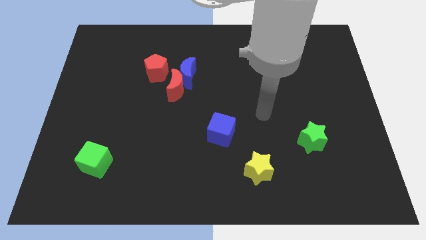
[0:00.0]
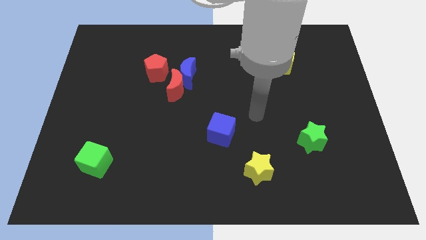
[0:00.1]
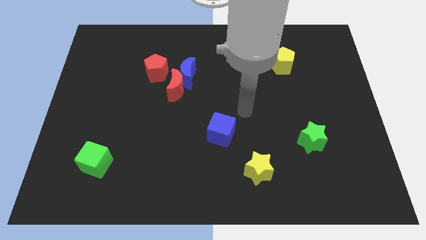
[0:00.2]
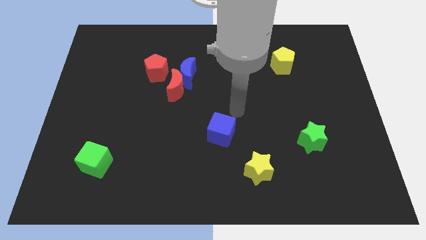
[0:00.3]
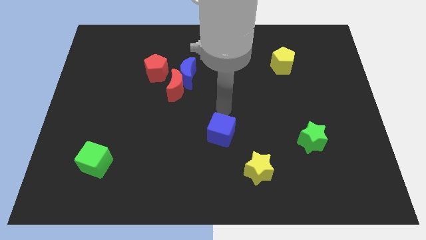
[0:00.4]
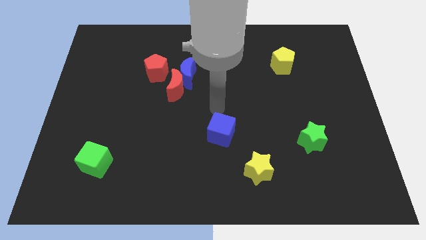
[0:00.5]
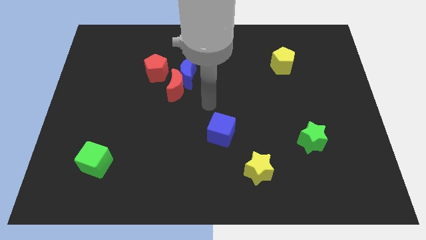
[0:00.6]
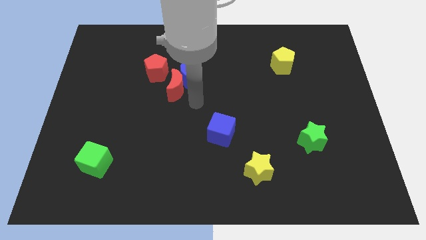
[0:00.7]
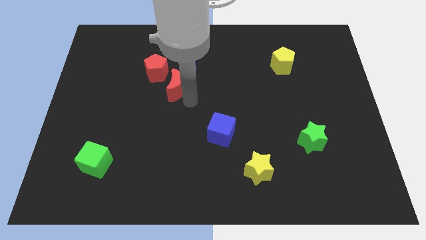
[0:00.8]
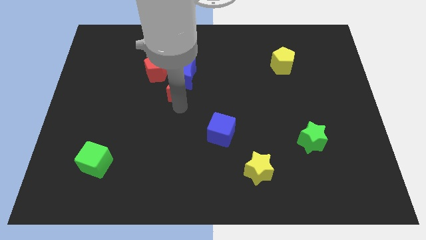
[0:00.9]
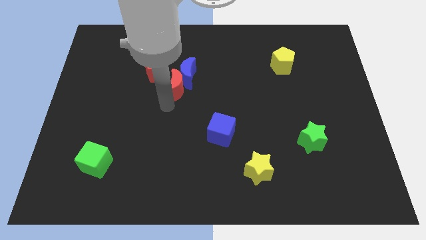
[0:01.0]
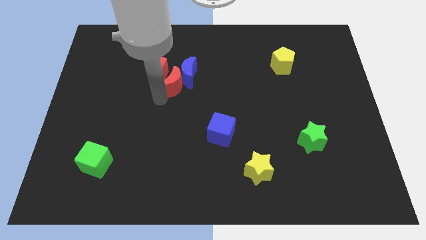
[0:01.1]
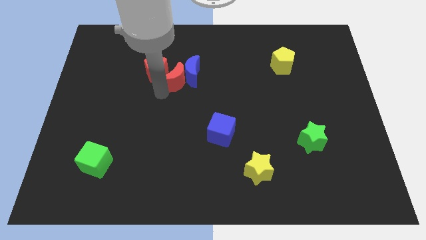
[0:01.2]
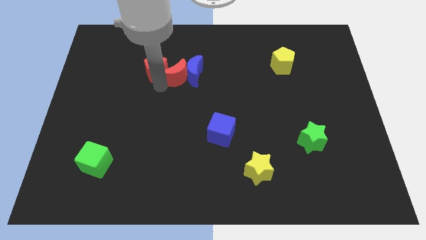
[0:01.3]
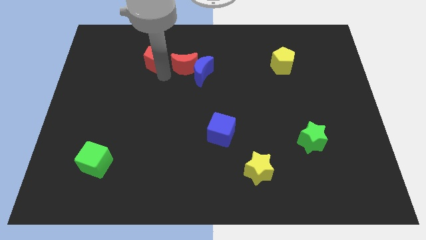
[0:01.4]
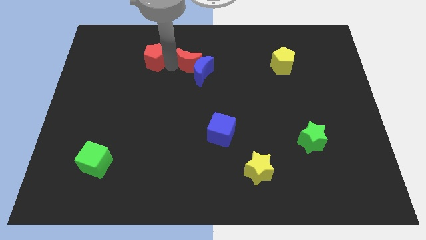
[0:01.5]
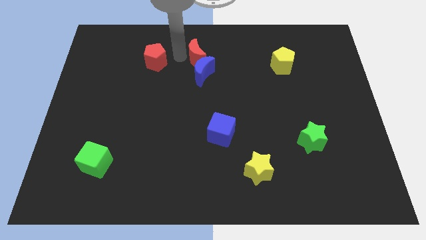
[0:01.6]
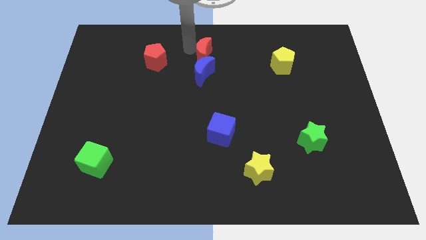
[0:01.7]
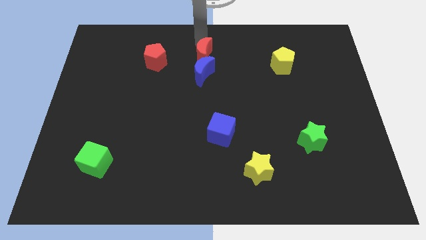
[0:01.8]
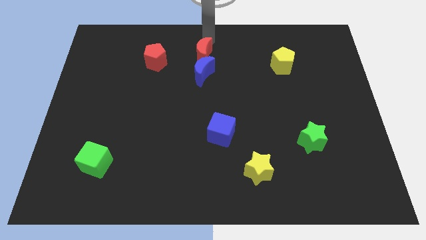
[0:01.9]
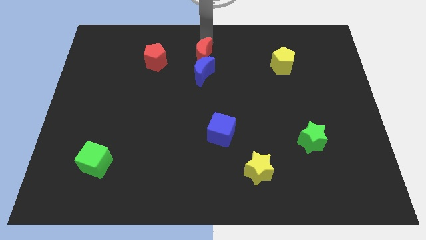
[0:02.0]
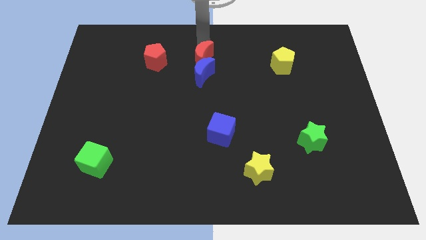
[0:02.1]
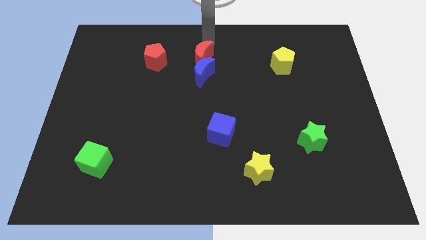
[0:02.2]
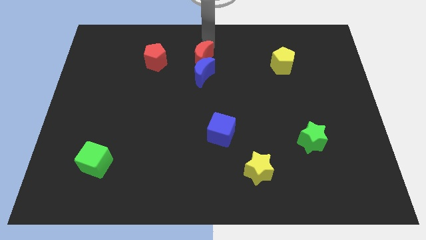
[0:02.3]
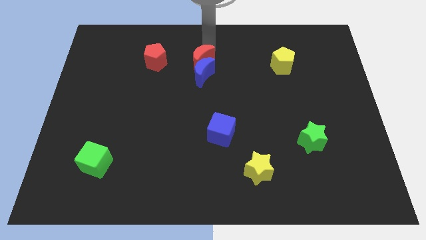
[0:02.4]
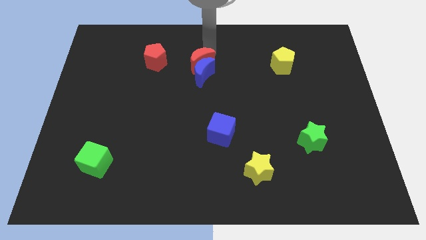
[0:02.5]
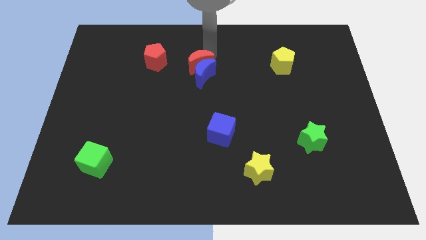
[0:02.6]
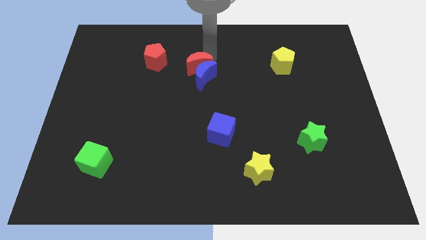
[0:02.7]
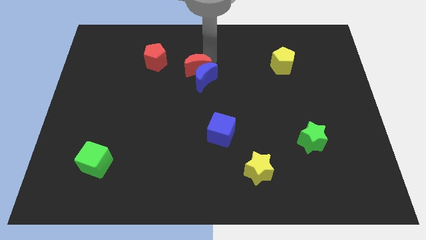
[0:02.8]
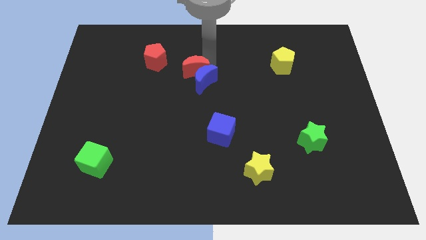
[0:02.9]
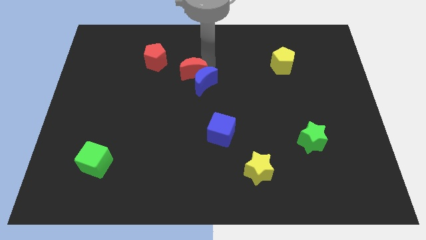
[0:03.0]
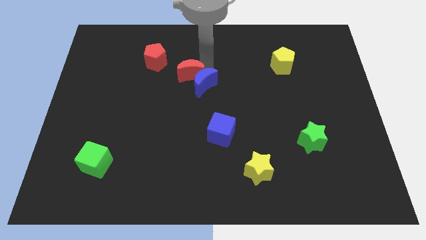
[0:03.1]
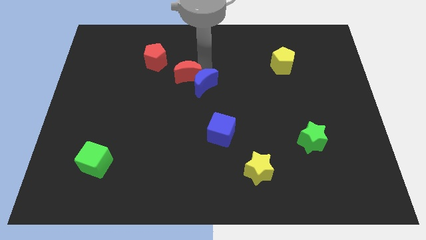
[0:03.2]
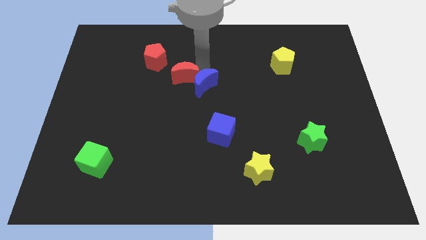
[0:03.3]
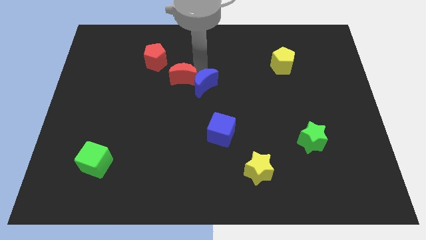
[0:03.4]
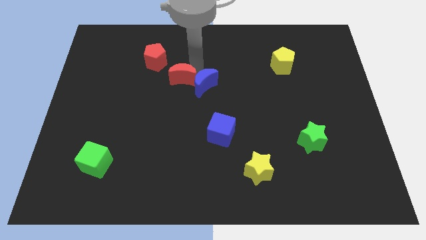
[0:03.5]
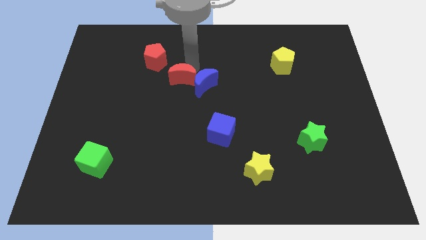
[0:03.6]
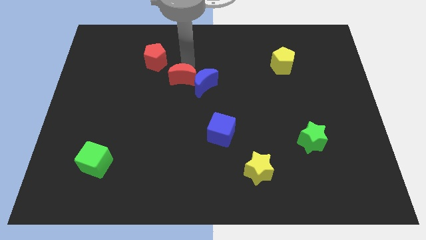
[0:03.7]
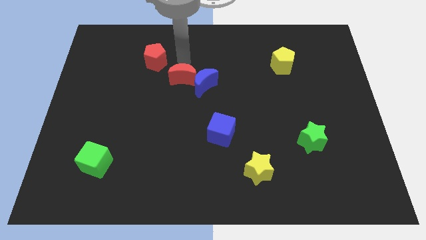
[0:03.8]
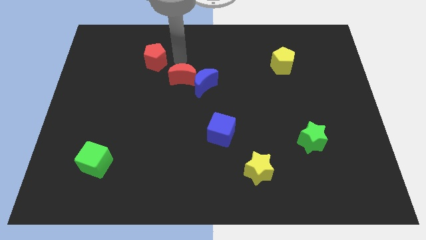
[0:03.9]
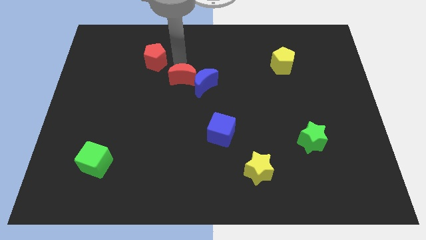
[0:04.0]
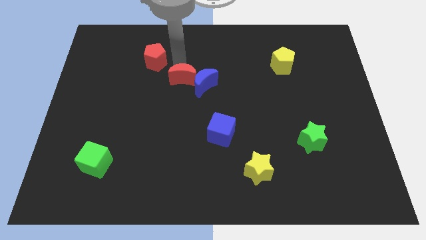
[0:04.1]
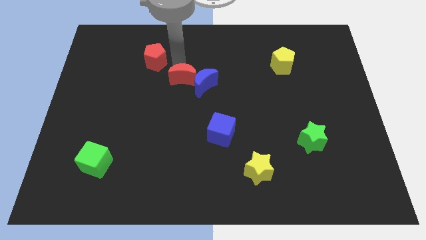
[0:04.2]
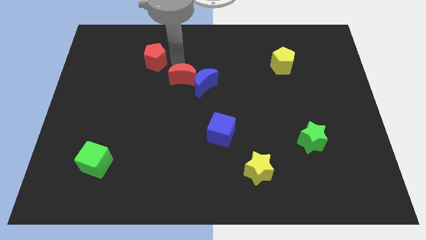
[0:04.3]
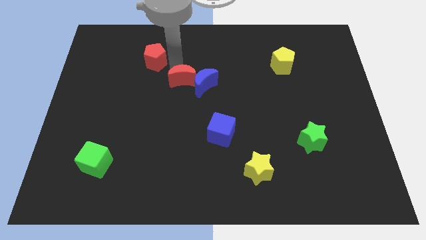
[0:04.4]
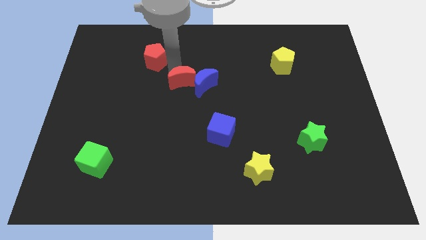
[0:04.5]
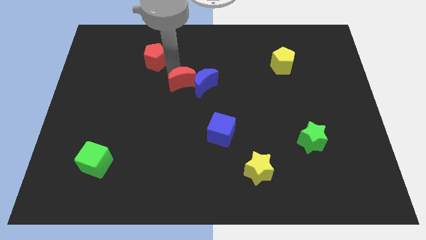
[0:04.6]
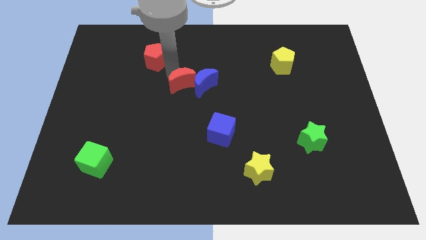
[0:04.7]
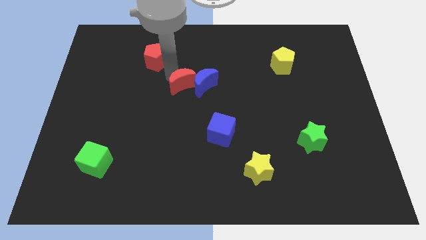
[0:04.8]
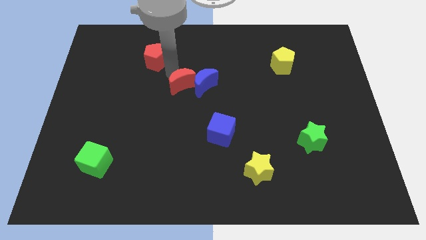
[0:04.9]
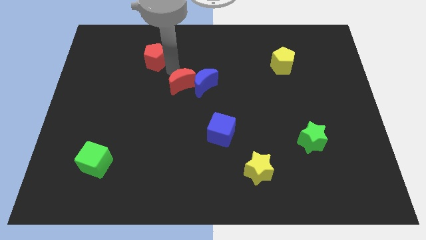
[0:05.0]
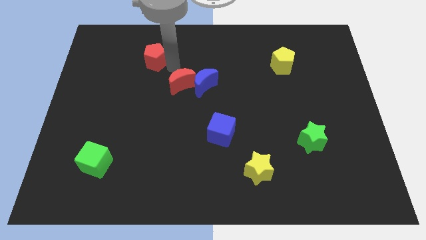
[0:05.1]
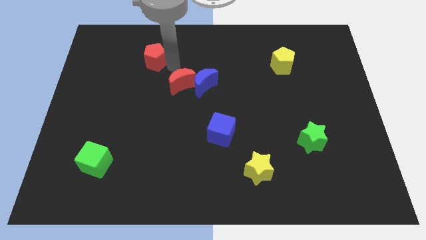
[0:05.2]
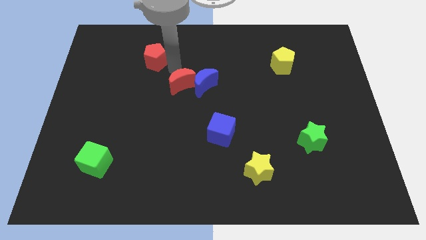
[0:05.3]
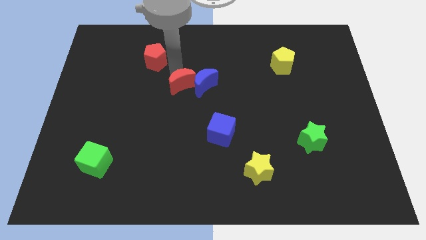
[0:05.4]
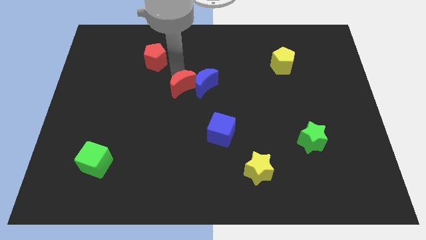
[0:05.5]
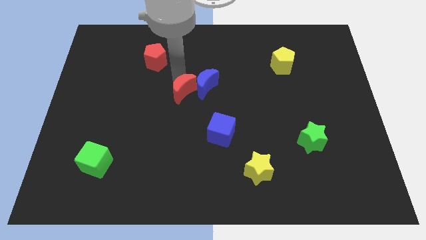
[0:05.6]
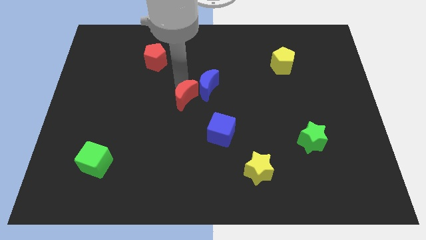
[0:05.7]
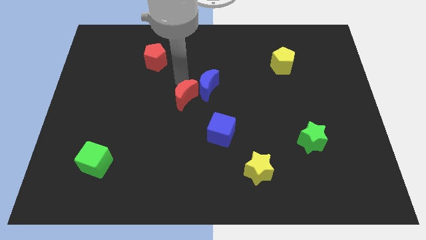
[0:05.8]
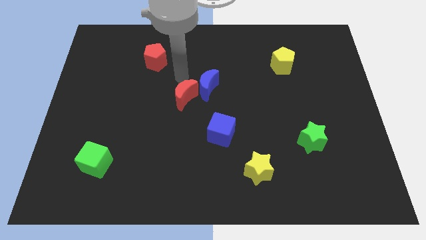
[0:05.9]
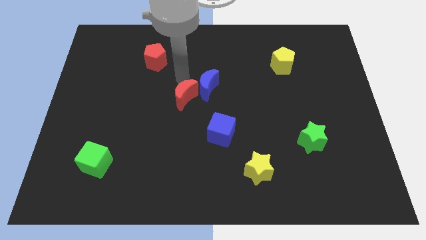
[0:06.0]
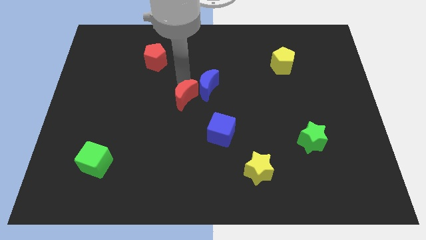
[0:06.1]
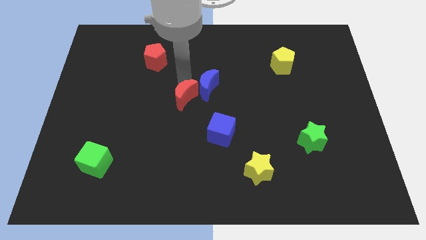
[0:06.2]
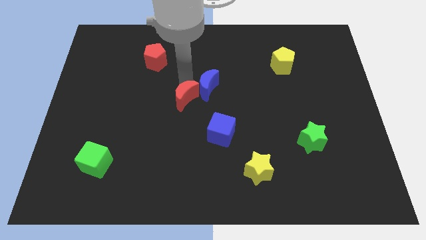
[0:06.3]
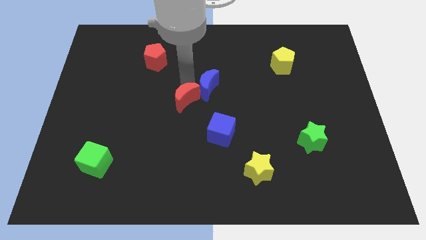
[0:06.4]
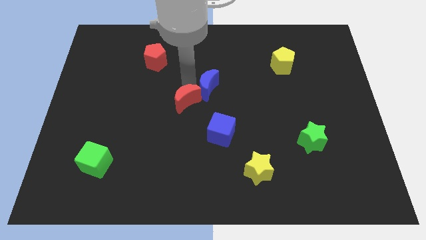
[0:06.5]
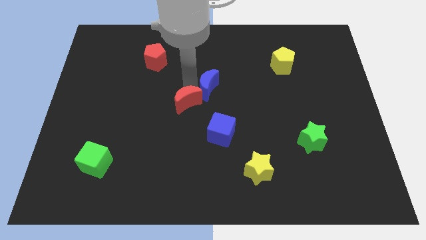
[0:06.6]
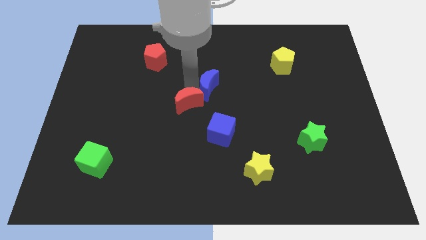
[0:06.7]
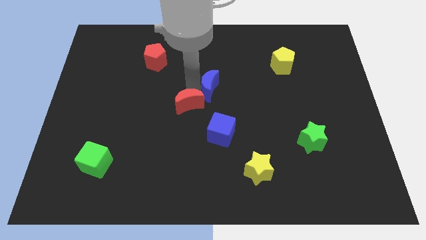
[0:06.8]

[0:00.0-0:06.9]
separate the red moon from the blue moon and red pentagon

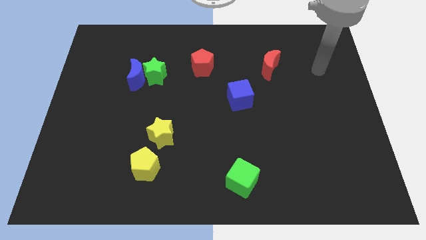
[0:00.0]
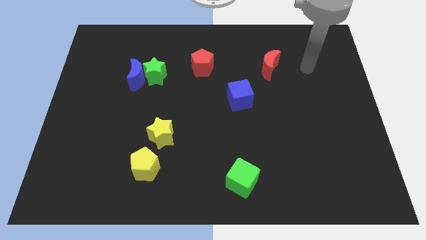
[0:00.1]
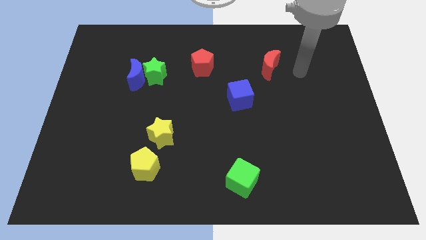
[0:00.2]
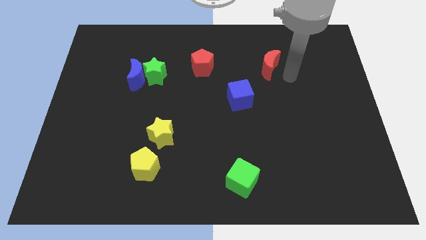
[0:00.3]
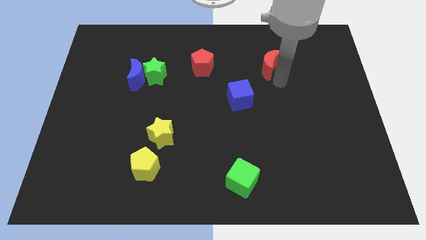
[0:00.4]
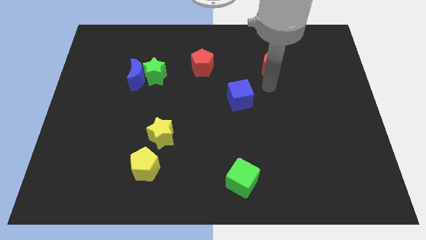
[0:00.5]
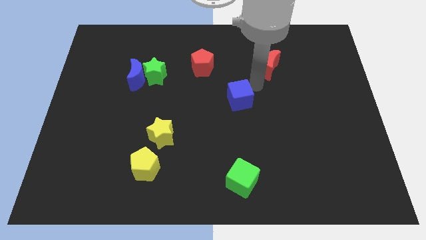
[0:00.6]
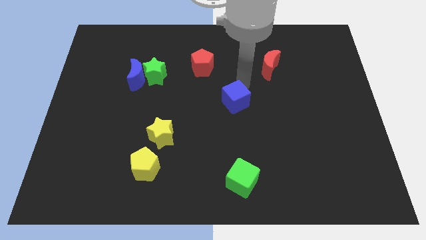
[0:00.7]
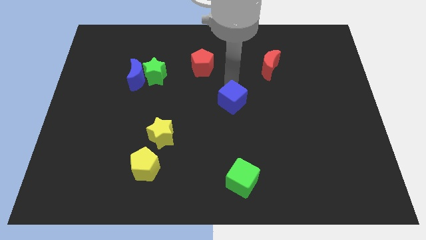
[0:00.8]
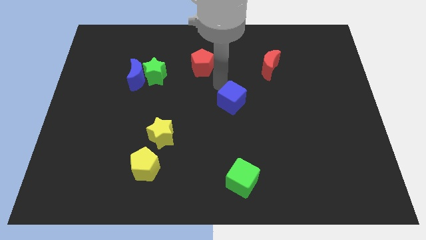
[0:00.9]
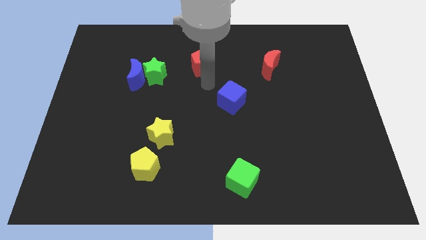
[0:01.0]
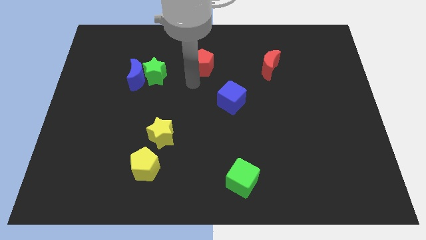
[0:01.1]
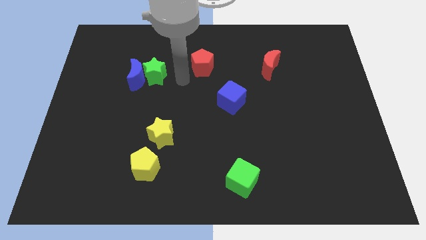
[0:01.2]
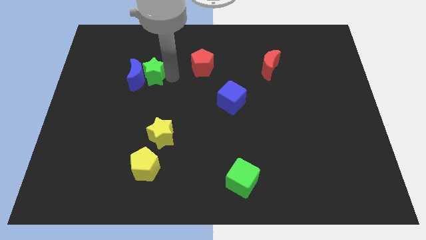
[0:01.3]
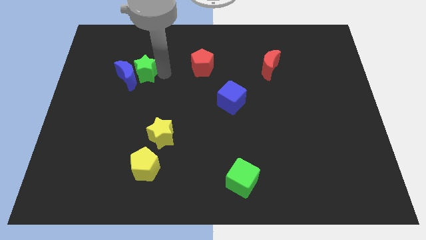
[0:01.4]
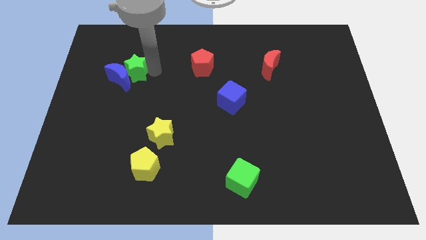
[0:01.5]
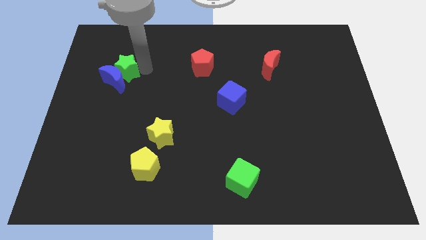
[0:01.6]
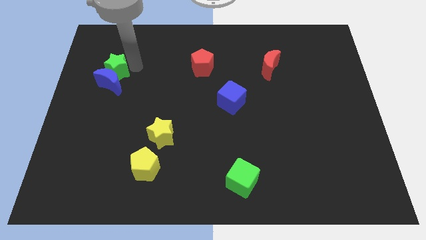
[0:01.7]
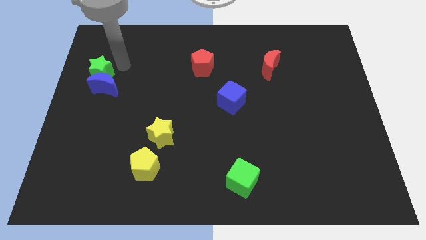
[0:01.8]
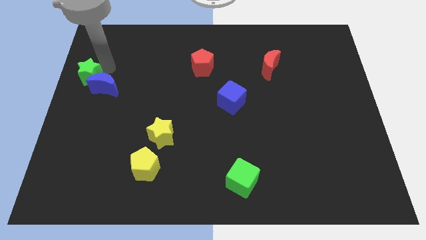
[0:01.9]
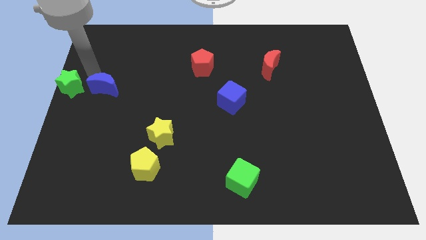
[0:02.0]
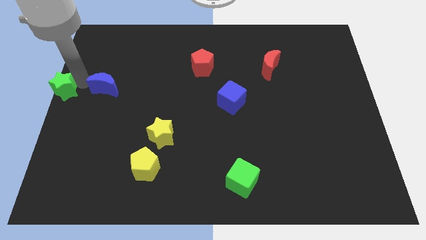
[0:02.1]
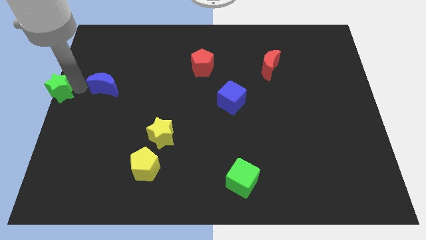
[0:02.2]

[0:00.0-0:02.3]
move the blue moon away from the green star

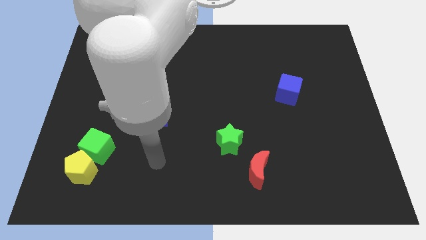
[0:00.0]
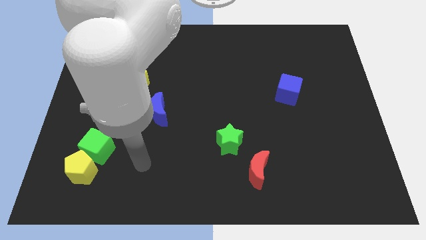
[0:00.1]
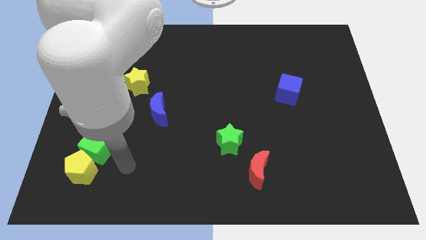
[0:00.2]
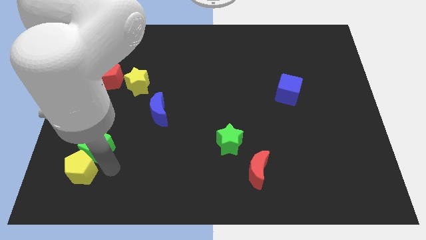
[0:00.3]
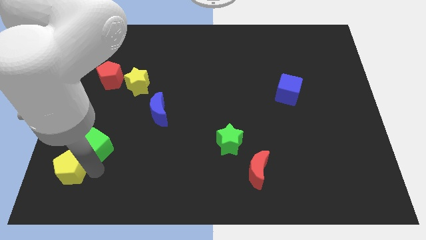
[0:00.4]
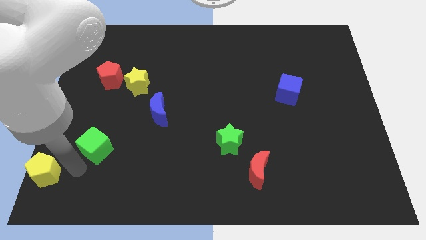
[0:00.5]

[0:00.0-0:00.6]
separate the green cube from the yellow pentagon
